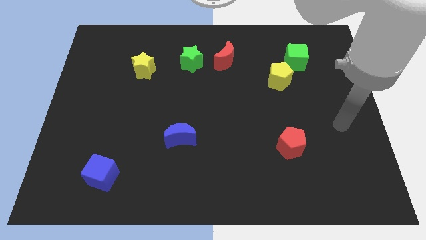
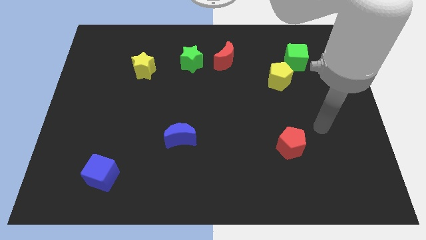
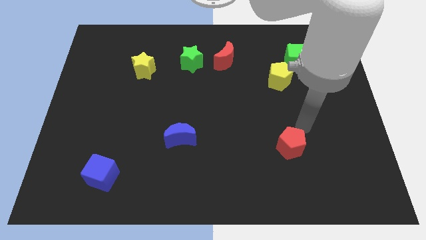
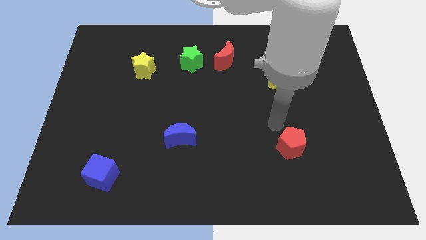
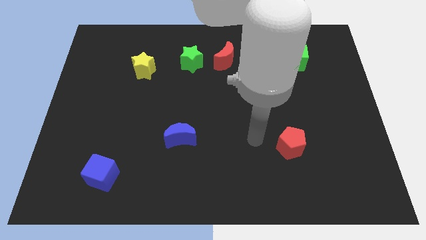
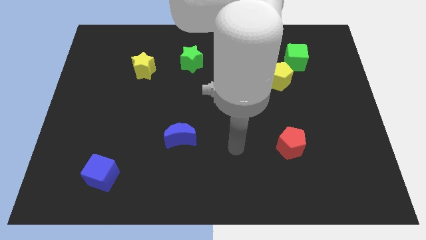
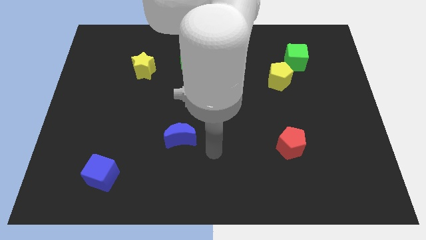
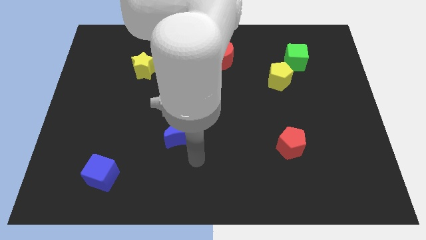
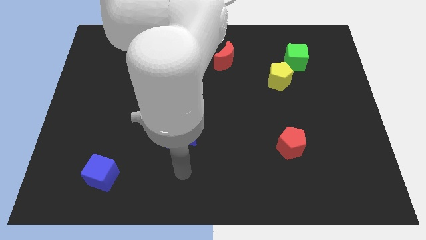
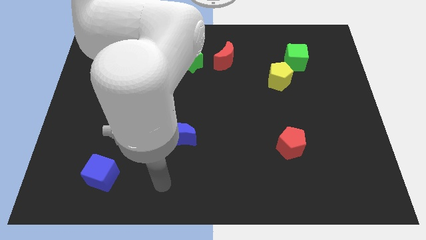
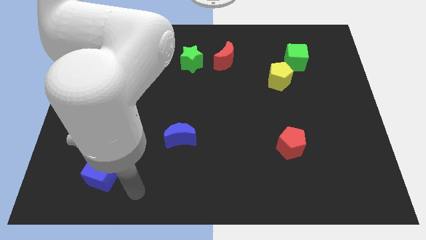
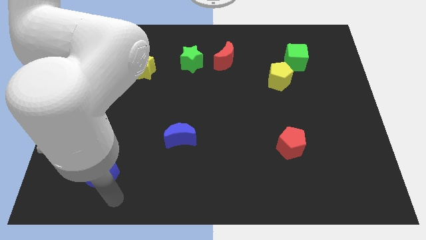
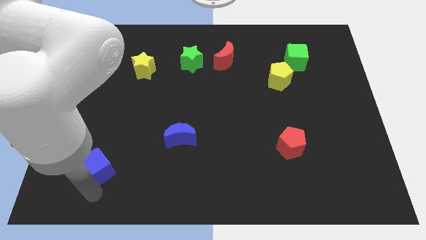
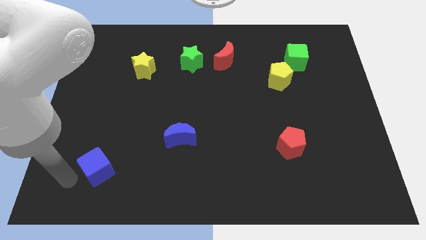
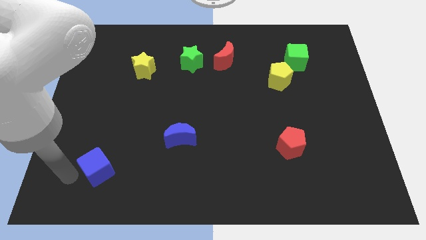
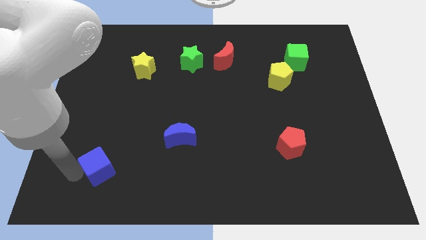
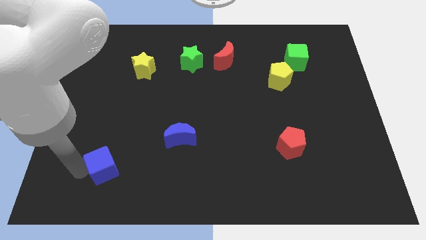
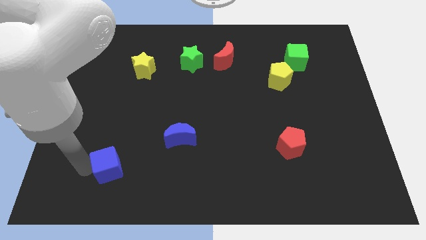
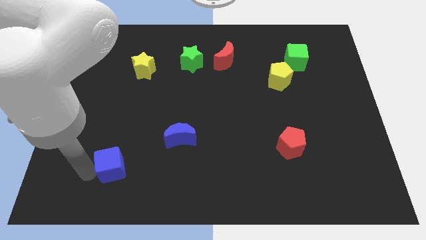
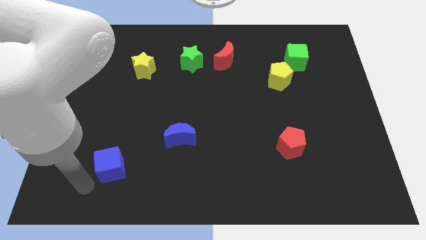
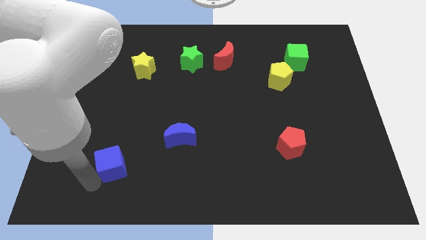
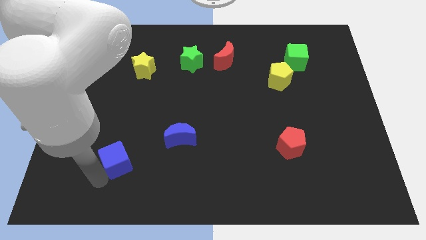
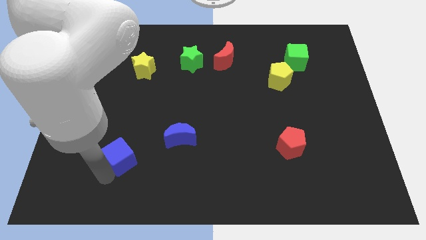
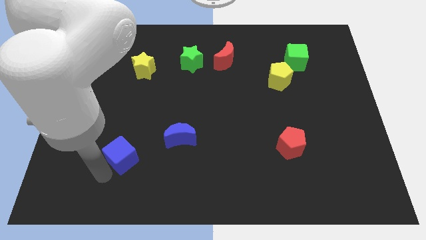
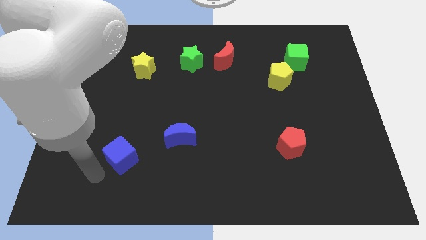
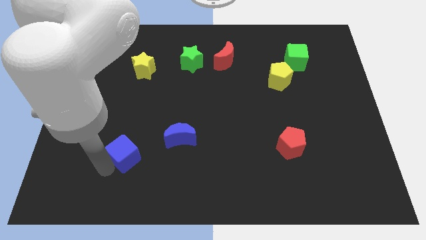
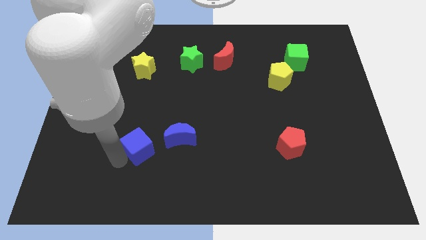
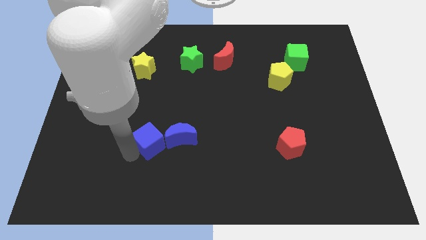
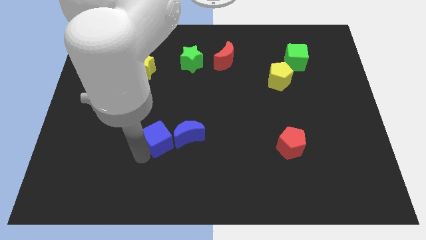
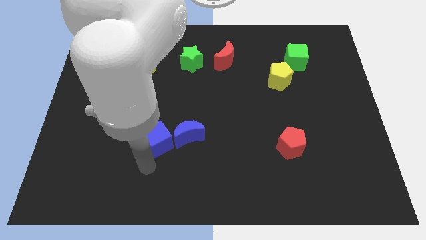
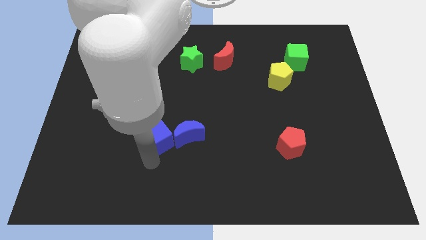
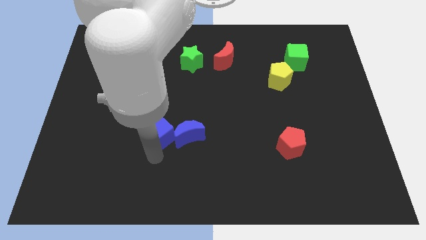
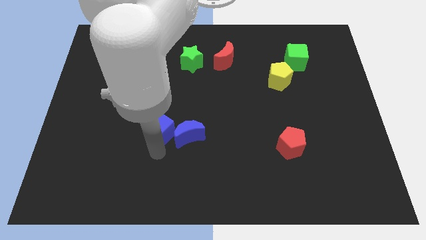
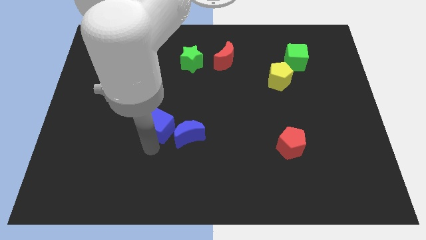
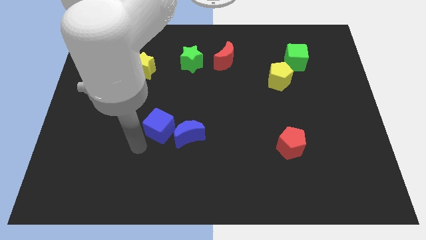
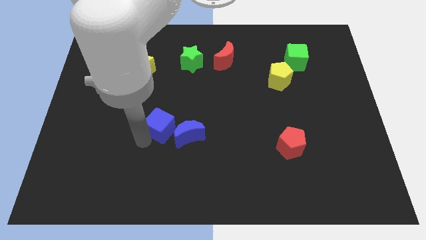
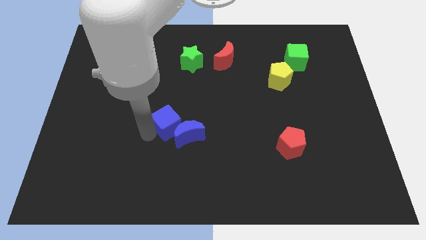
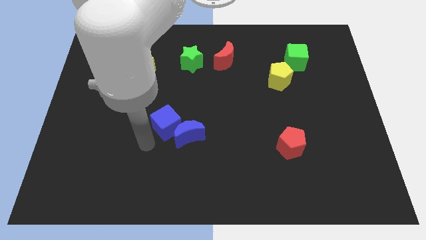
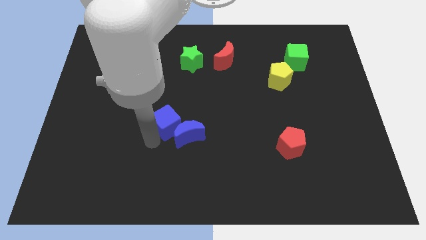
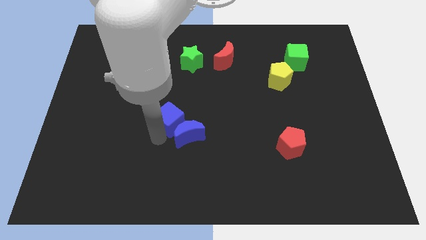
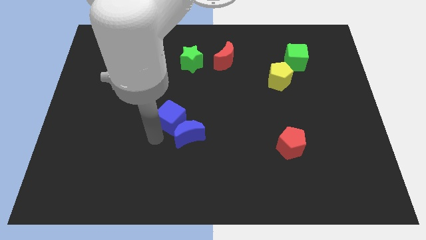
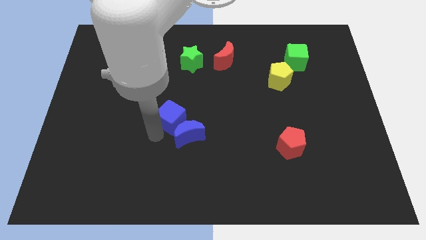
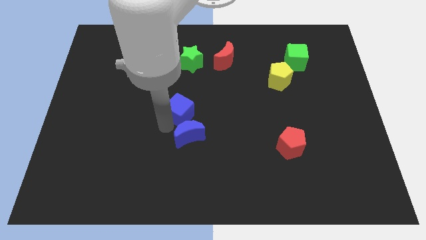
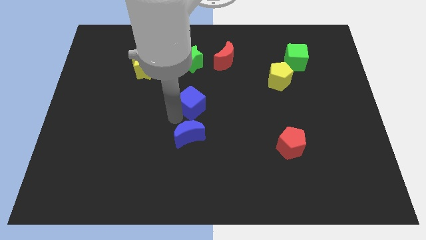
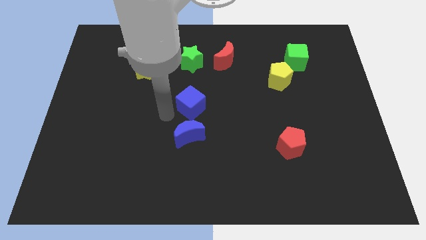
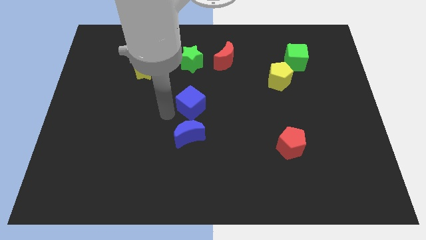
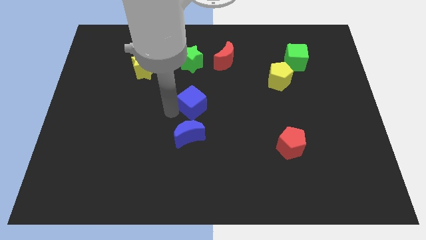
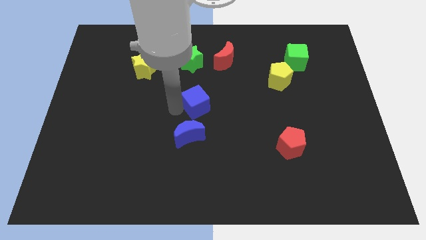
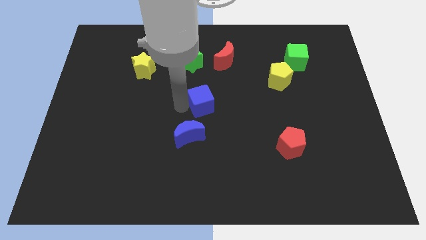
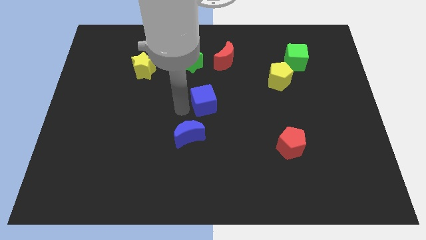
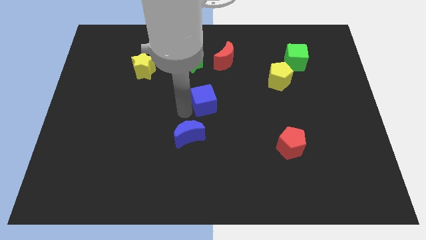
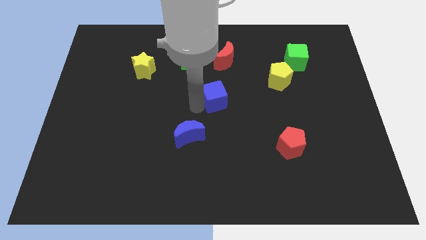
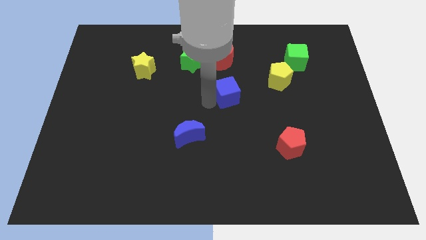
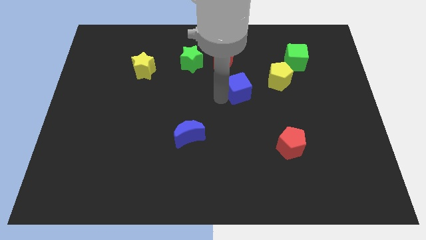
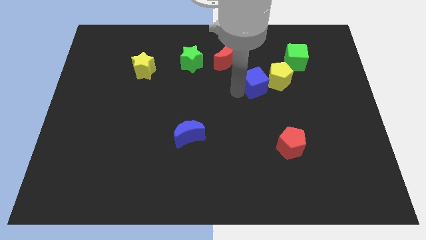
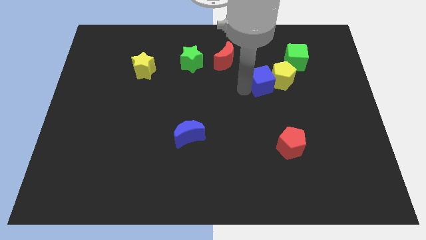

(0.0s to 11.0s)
push the blue cube next to the yellow pentagon

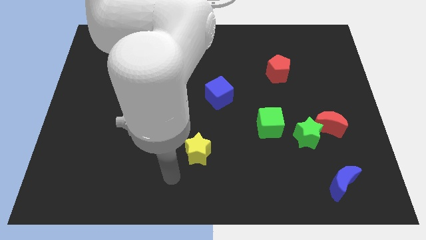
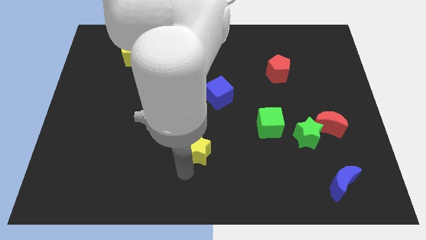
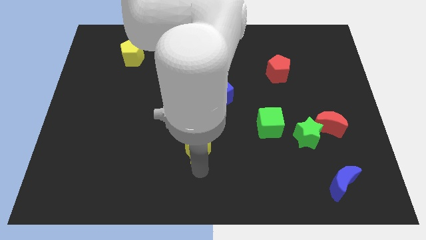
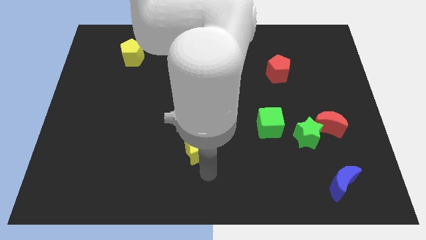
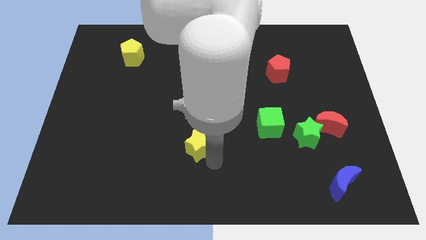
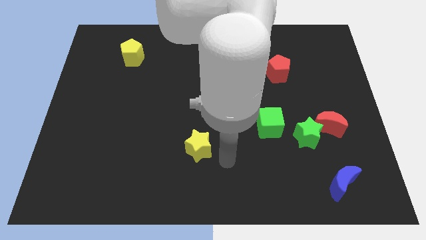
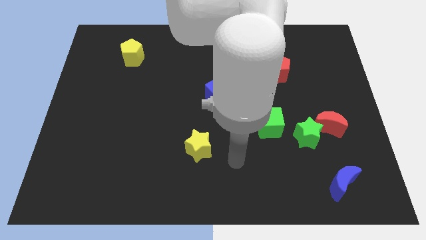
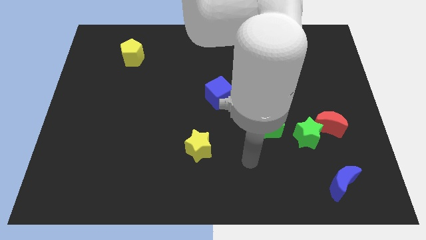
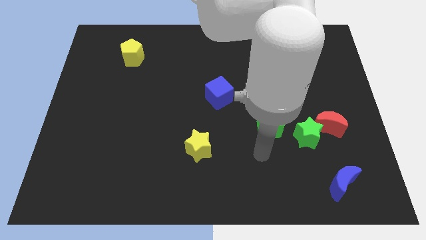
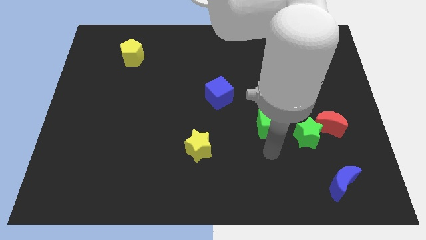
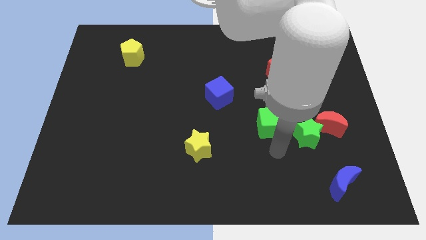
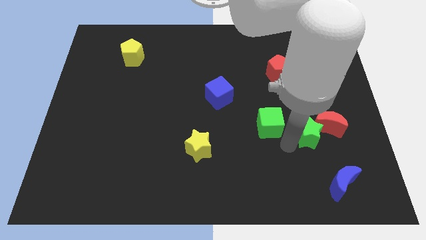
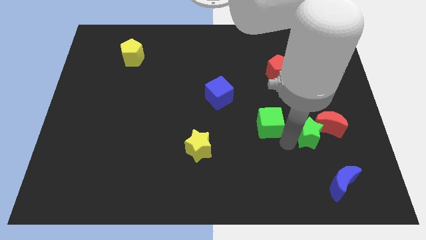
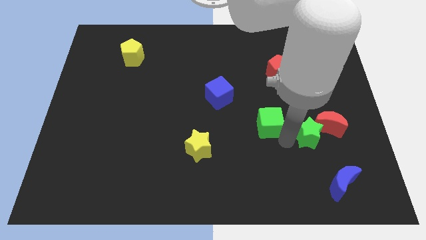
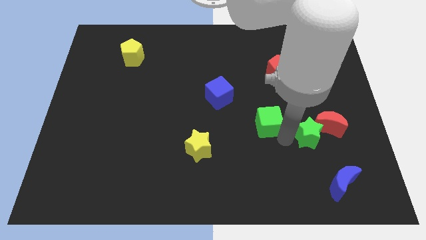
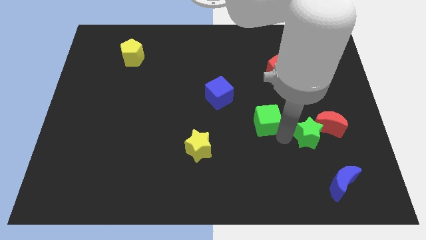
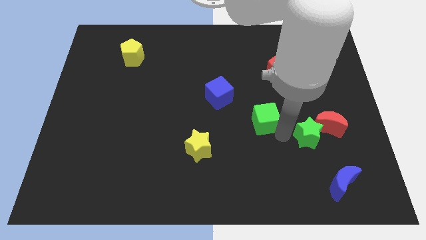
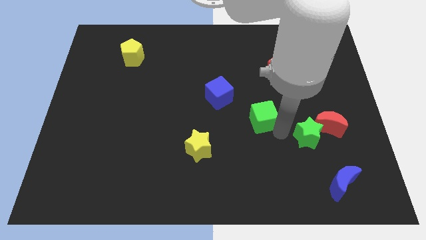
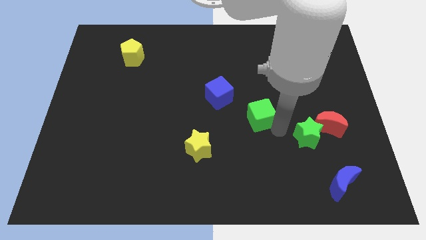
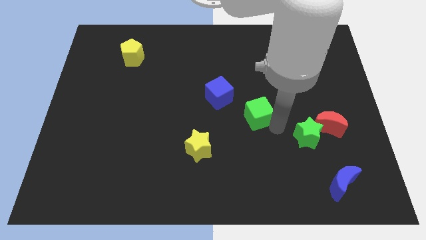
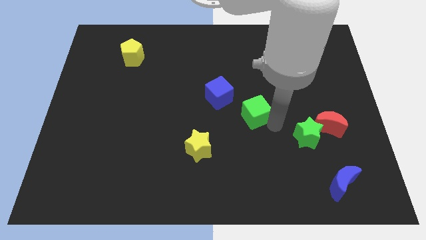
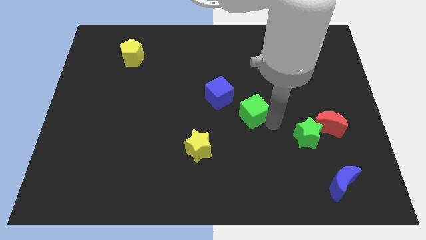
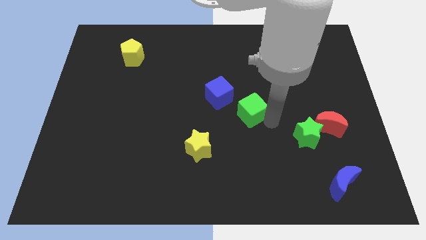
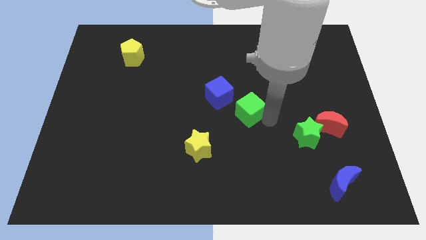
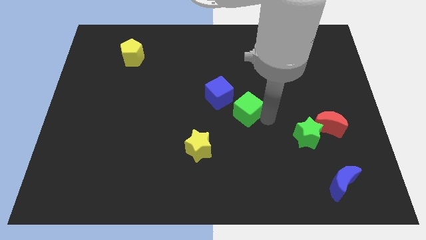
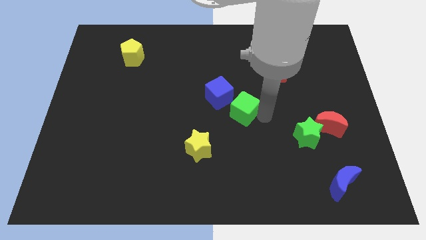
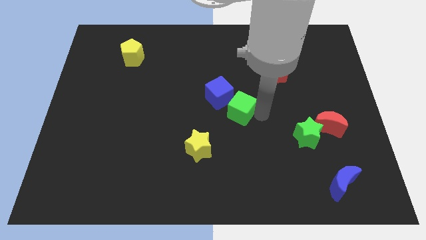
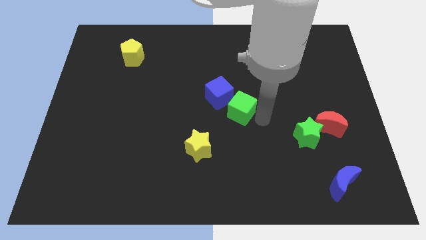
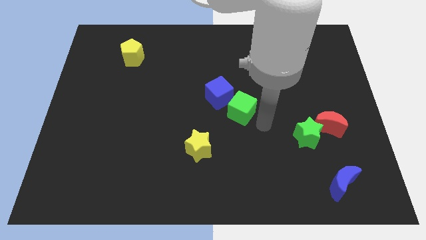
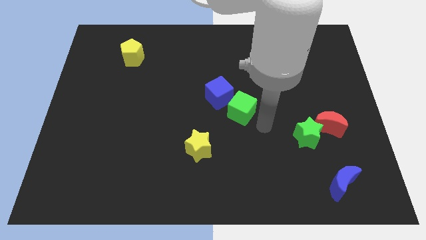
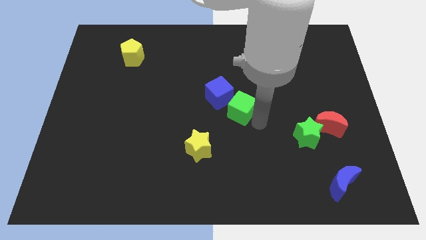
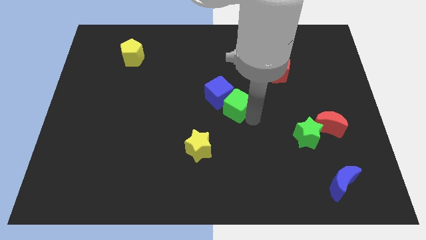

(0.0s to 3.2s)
push the green cube close to the blue cube
